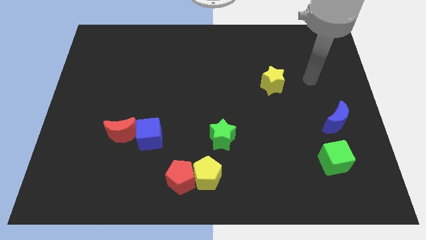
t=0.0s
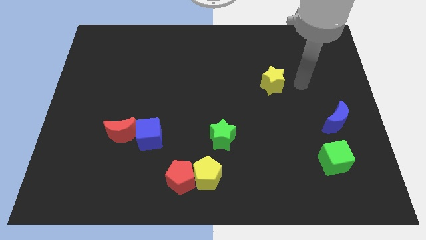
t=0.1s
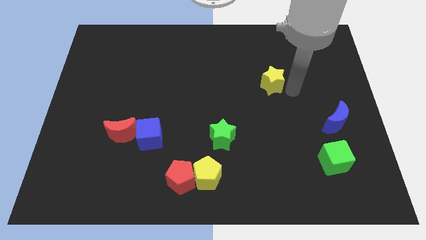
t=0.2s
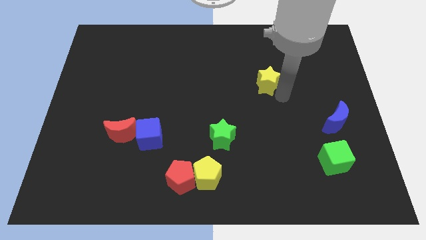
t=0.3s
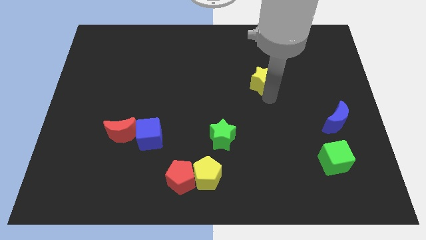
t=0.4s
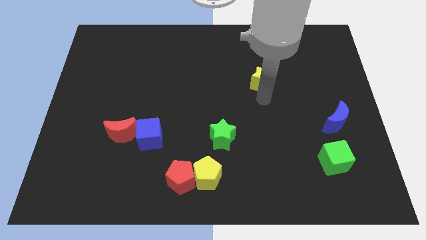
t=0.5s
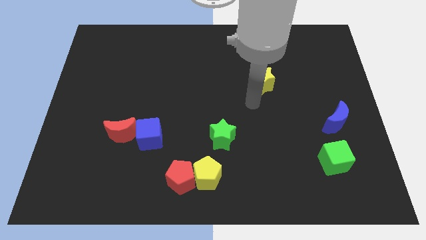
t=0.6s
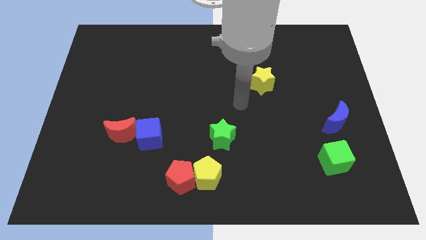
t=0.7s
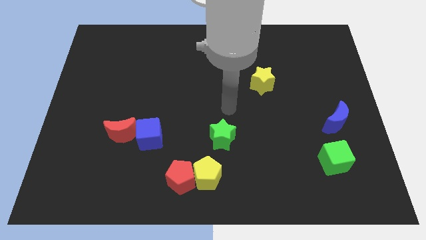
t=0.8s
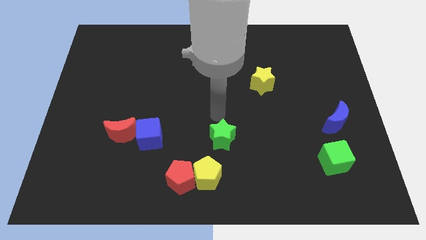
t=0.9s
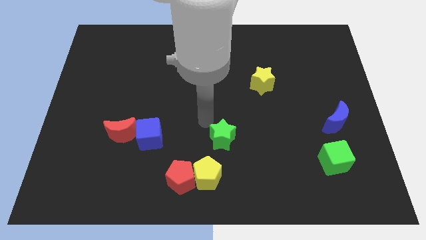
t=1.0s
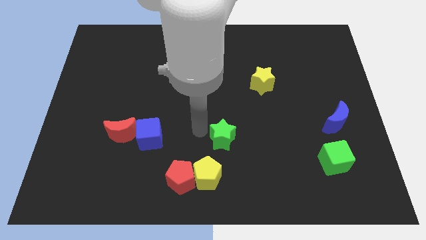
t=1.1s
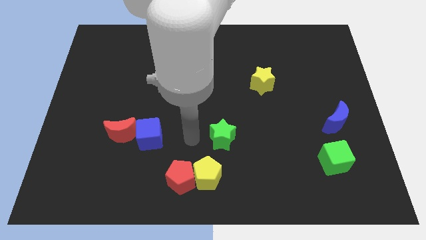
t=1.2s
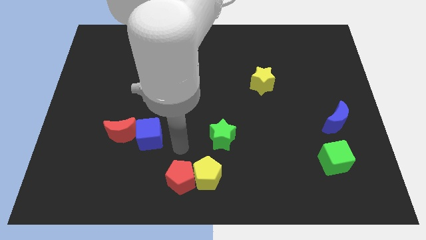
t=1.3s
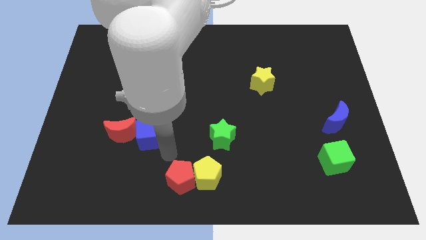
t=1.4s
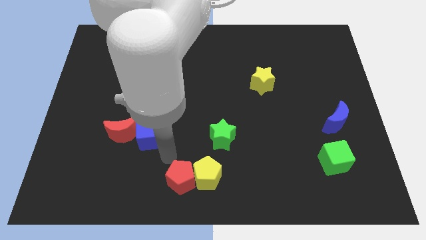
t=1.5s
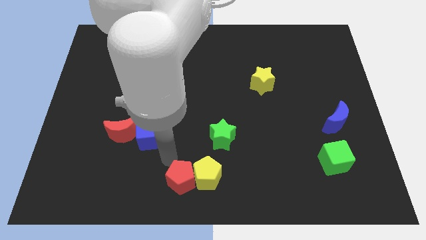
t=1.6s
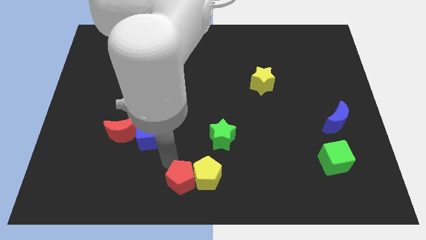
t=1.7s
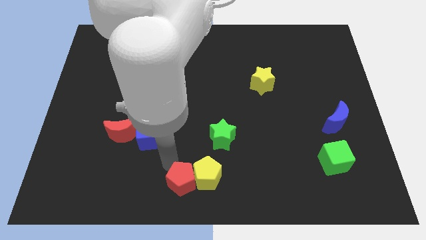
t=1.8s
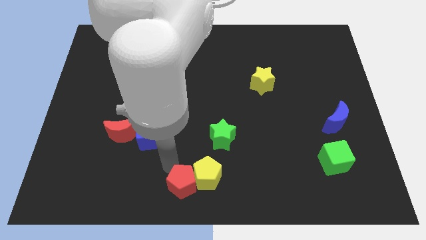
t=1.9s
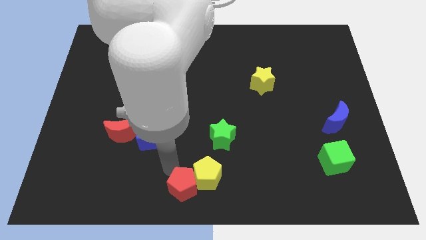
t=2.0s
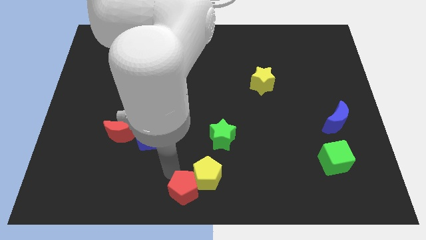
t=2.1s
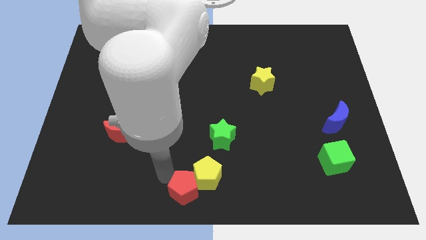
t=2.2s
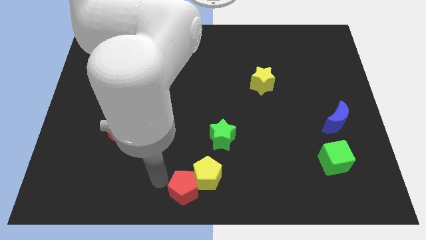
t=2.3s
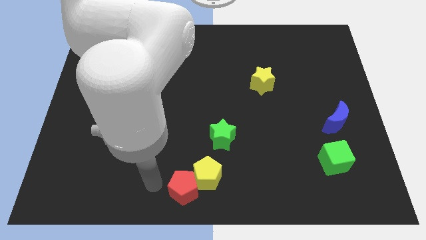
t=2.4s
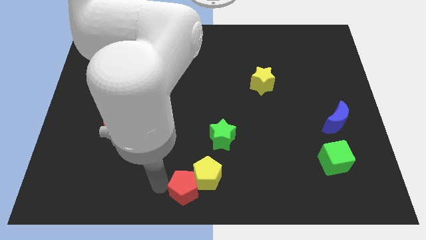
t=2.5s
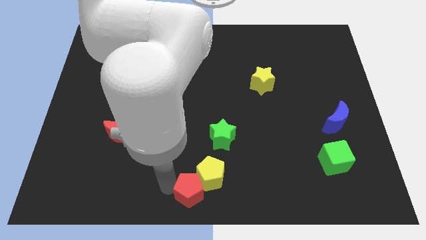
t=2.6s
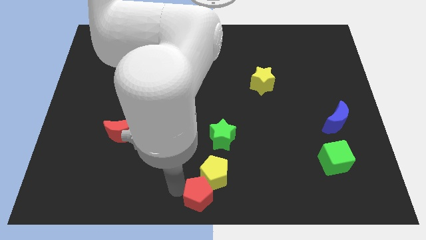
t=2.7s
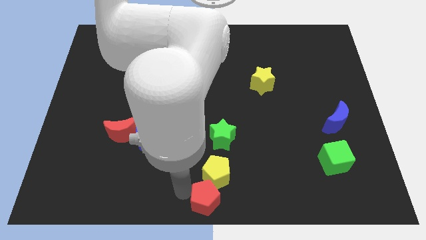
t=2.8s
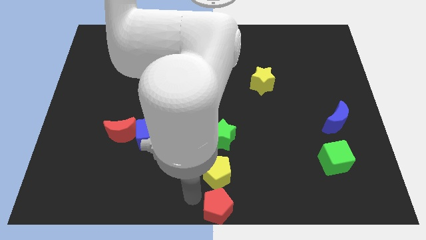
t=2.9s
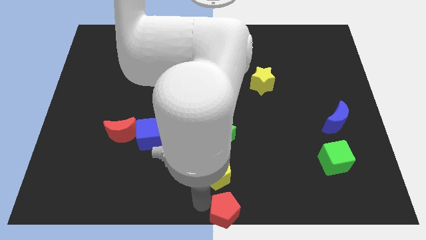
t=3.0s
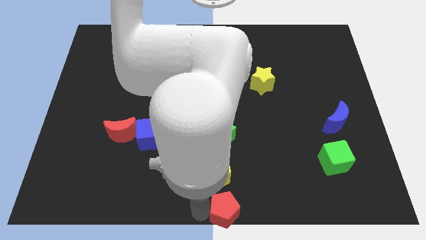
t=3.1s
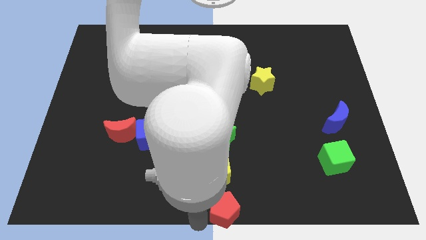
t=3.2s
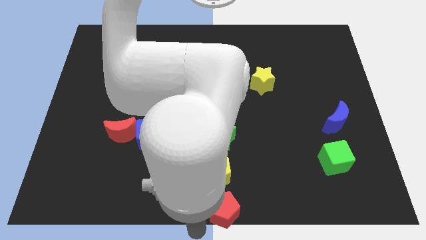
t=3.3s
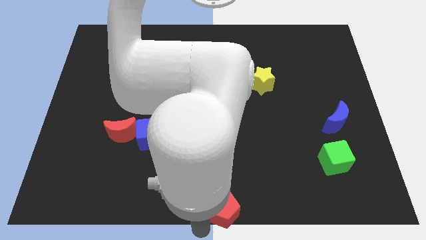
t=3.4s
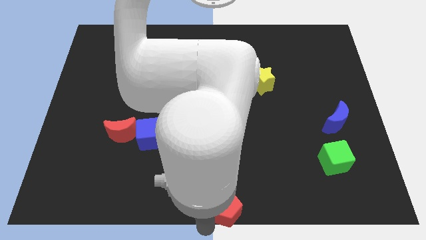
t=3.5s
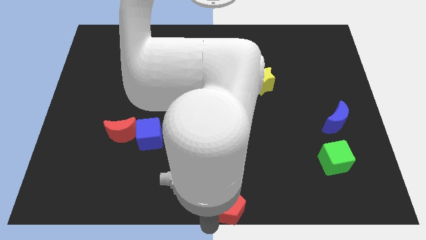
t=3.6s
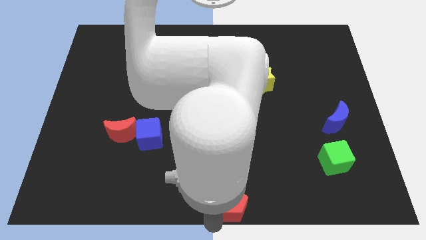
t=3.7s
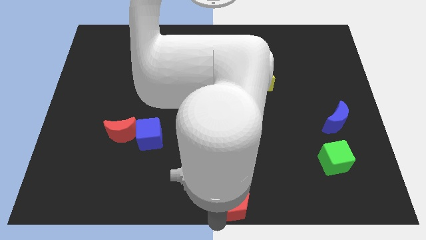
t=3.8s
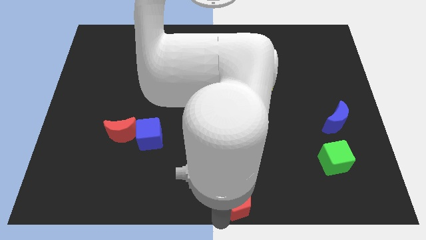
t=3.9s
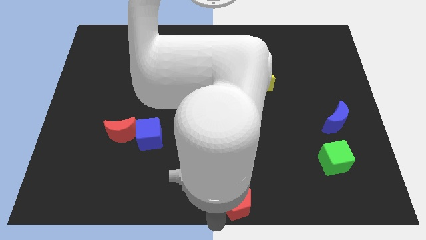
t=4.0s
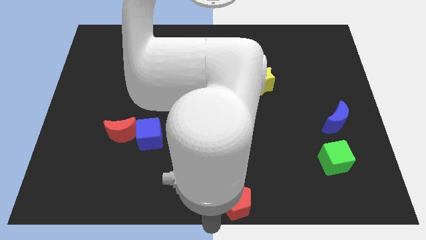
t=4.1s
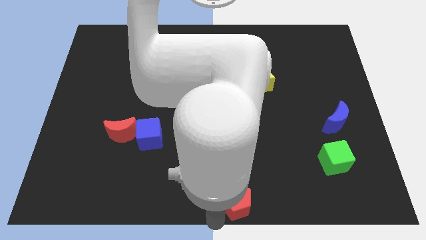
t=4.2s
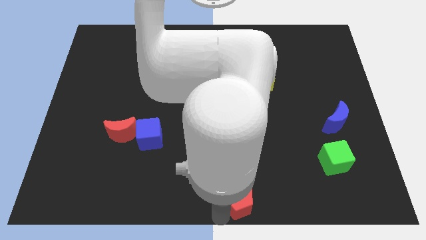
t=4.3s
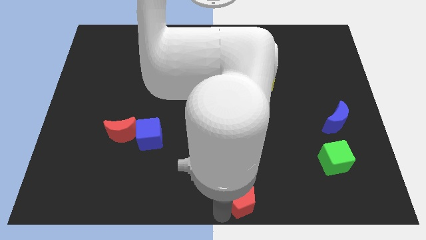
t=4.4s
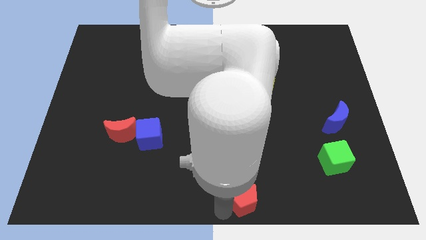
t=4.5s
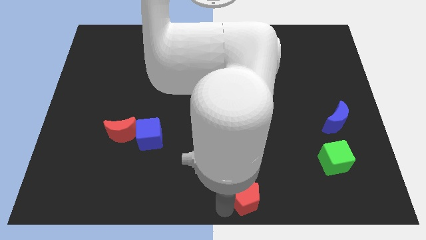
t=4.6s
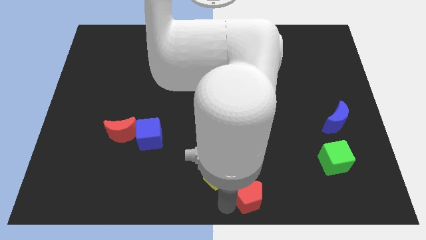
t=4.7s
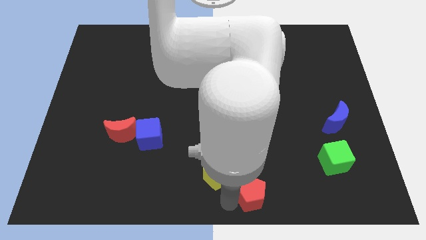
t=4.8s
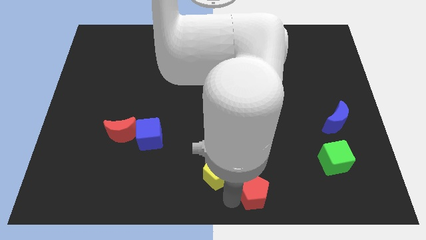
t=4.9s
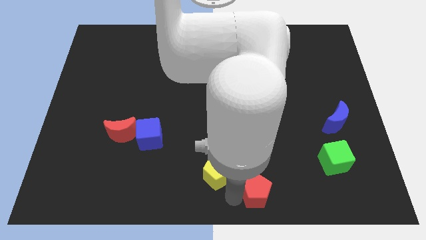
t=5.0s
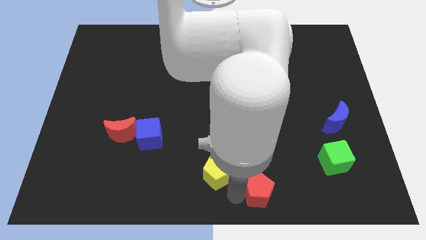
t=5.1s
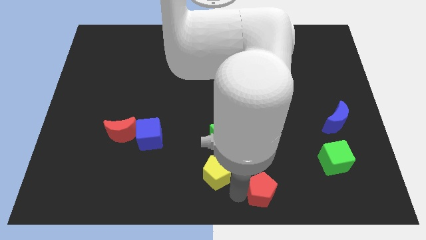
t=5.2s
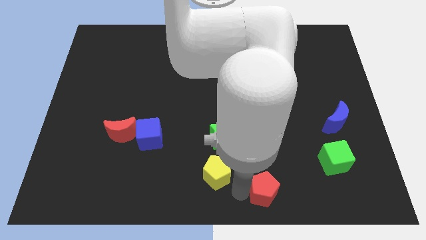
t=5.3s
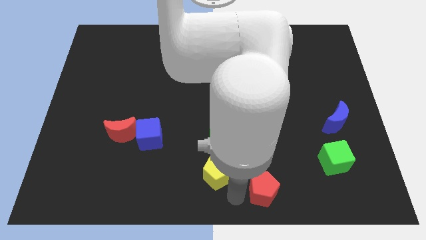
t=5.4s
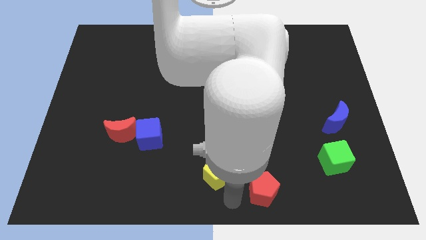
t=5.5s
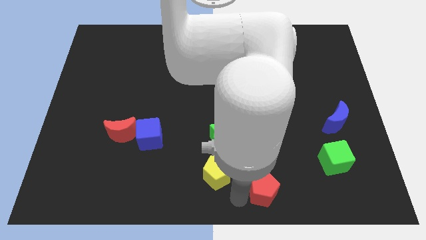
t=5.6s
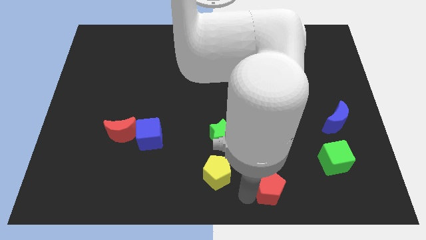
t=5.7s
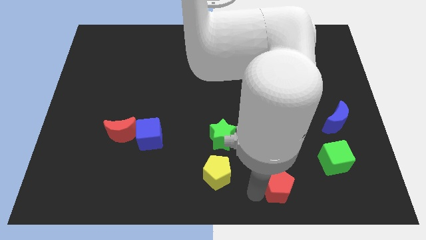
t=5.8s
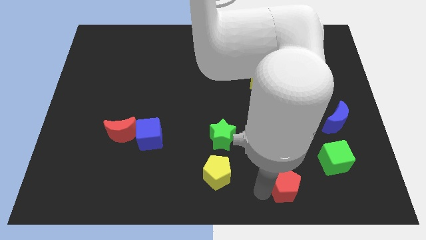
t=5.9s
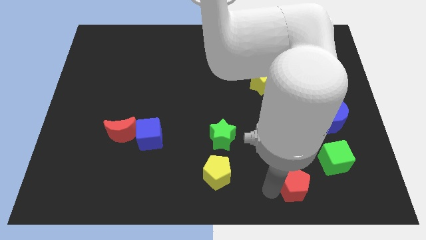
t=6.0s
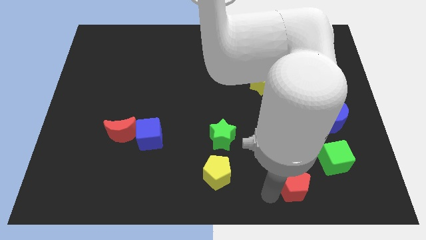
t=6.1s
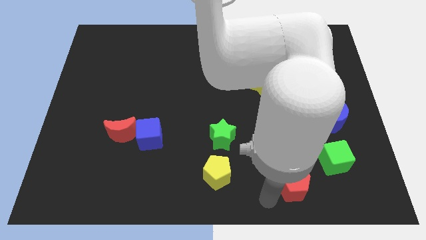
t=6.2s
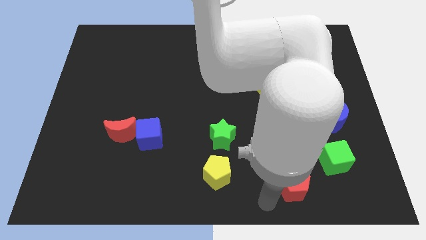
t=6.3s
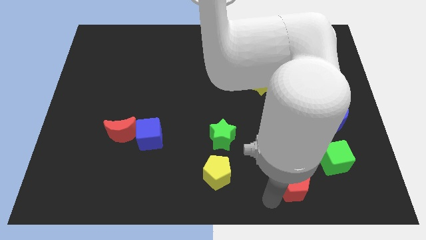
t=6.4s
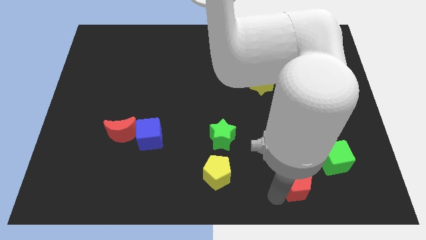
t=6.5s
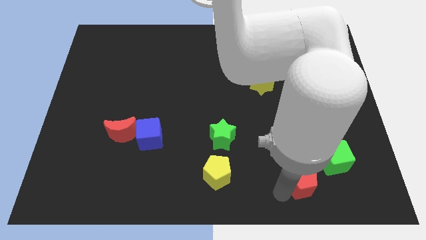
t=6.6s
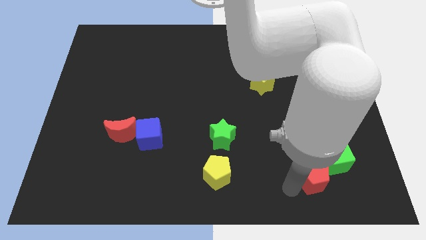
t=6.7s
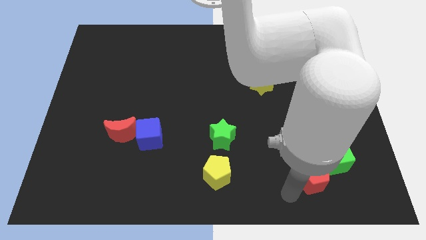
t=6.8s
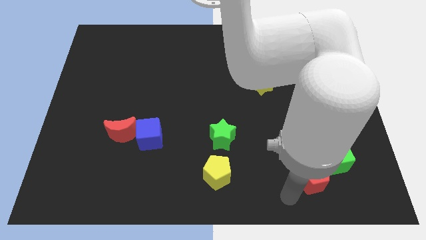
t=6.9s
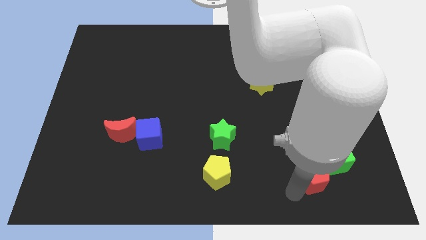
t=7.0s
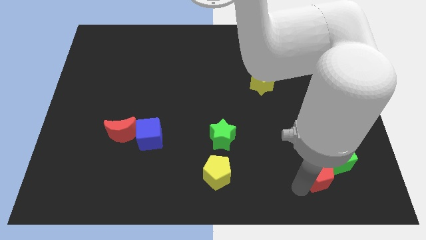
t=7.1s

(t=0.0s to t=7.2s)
slide the red pentagon next to the green cube
